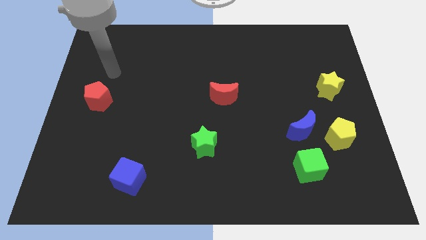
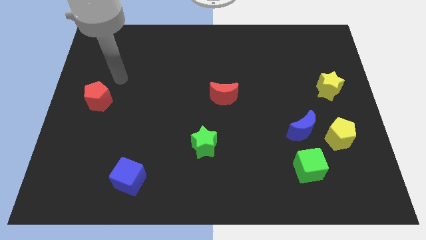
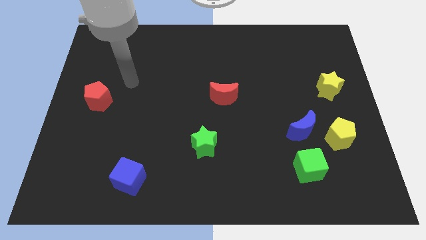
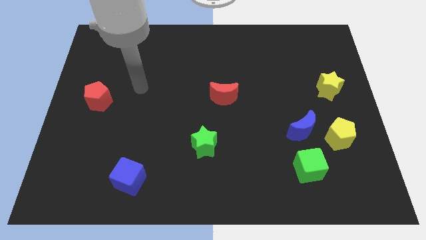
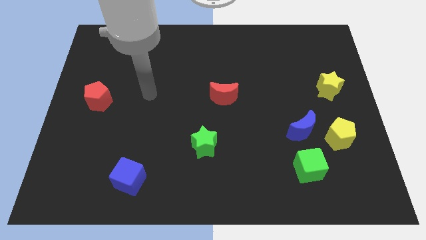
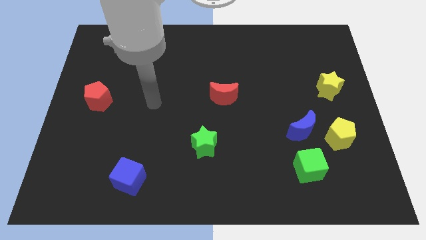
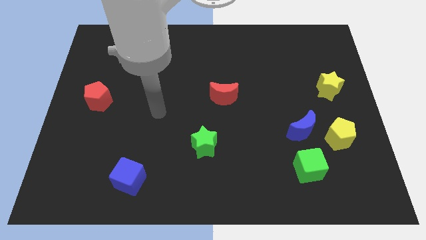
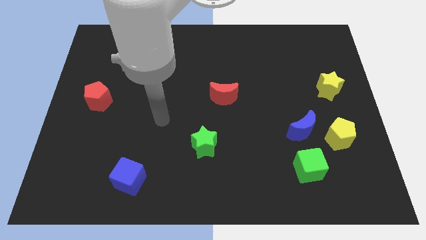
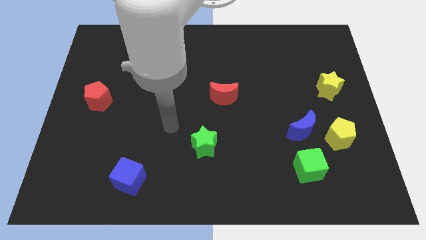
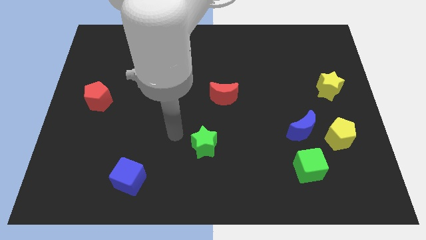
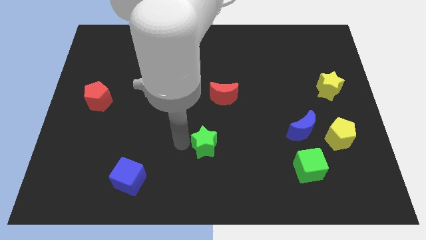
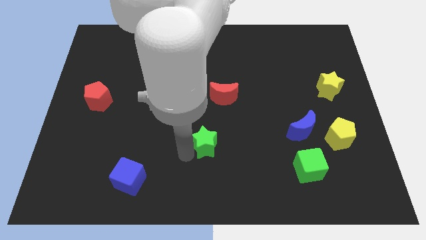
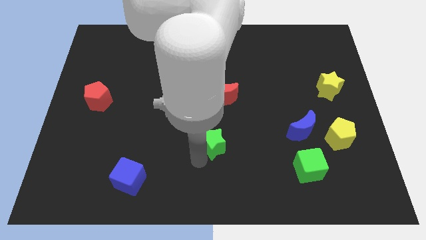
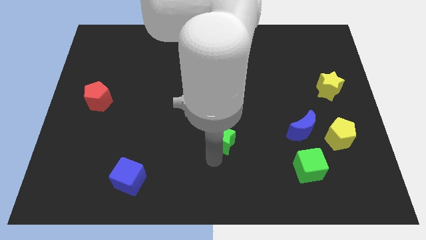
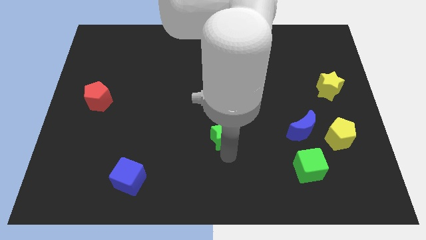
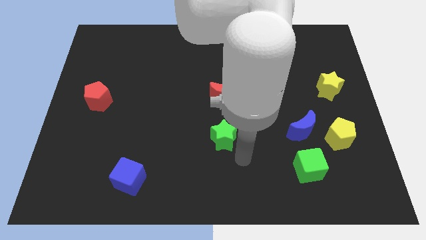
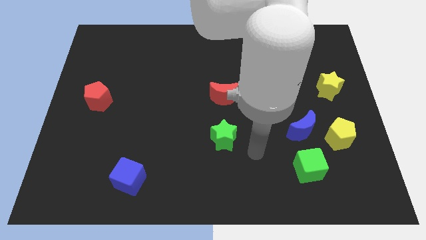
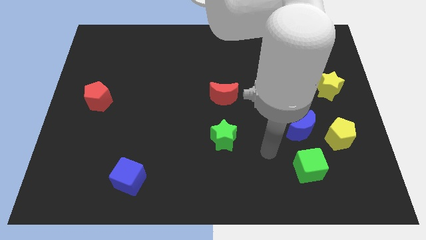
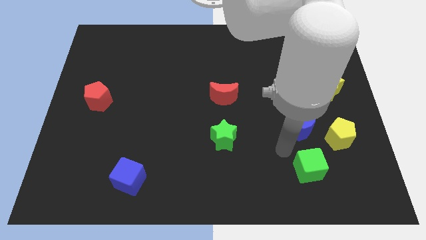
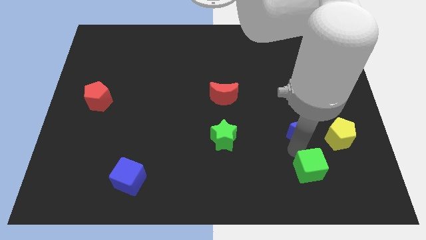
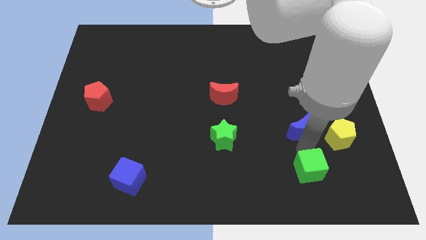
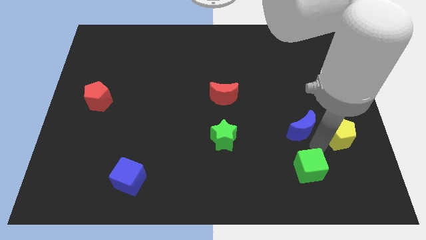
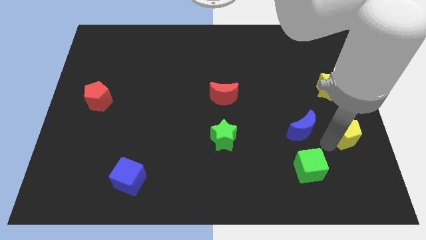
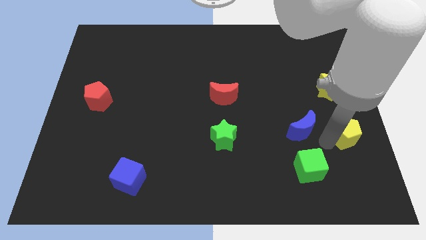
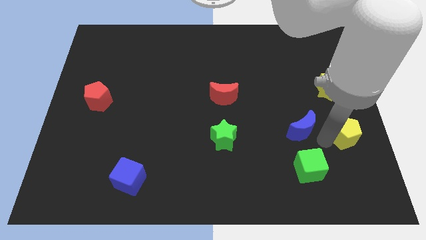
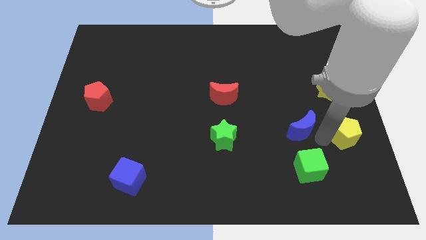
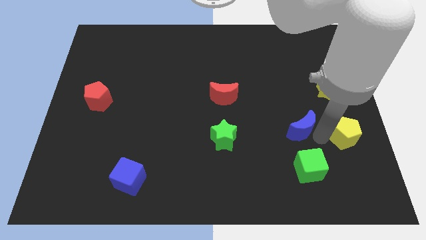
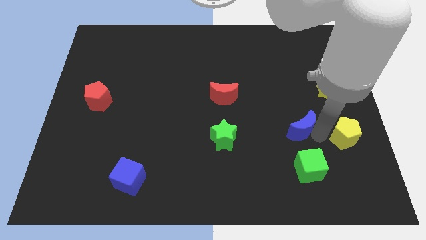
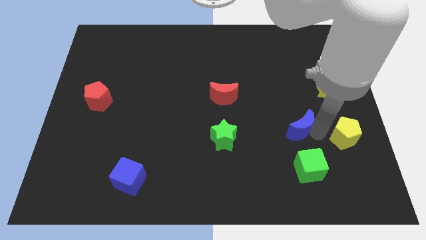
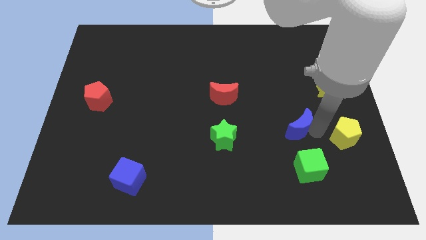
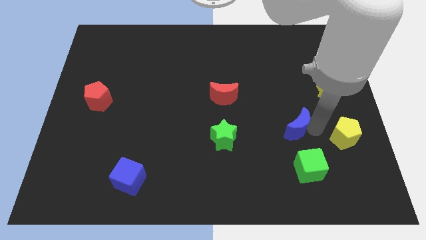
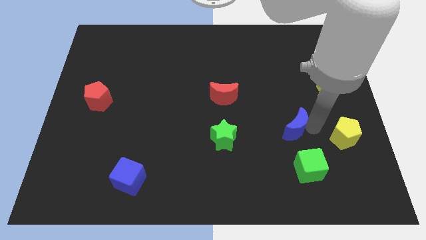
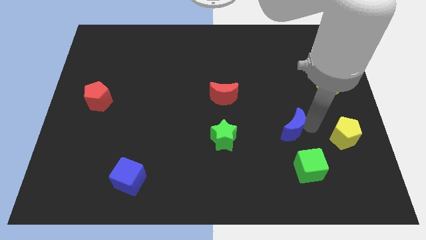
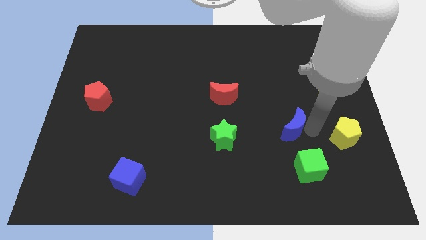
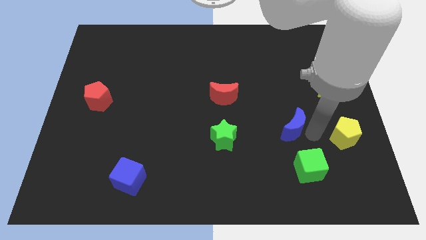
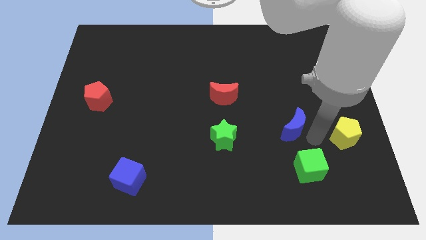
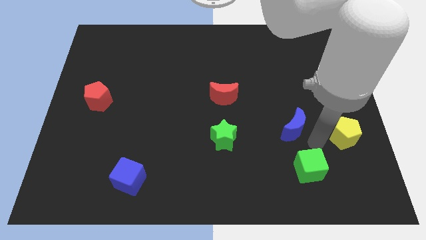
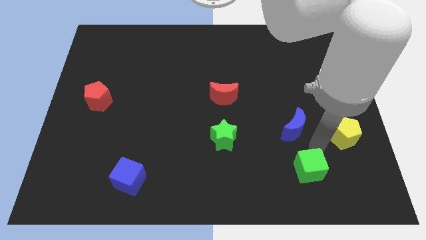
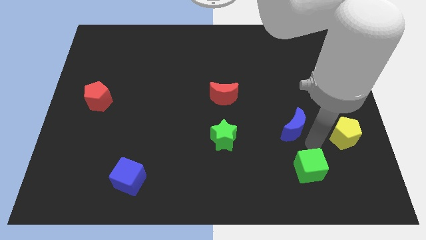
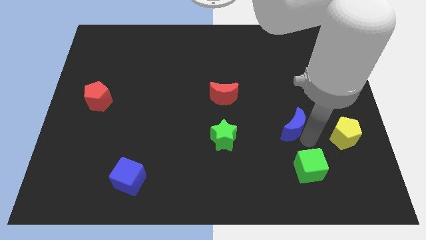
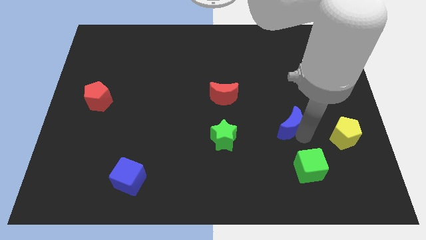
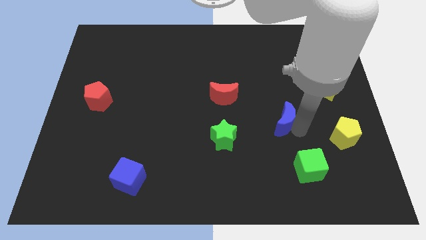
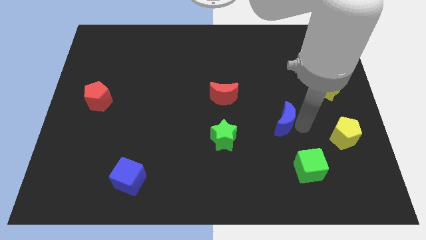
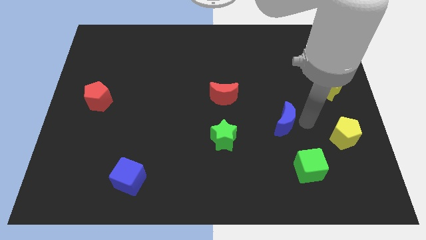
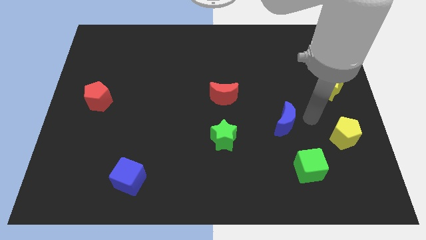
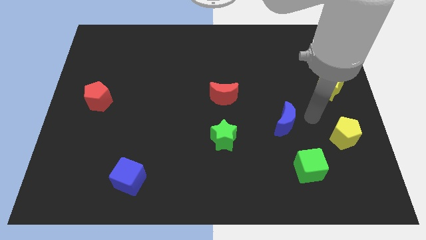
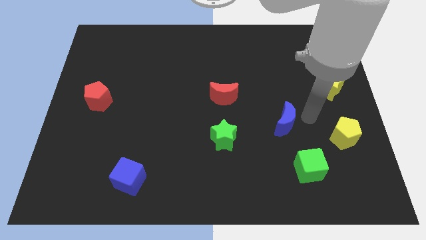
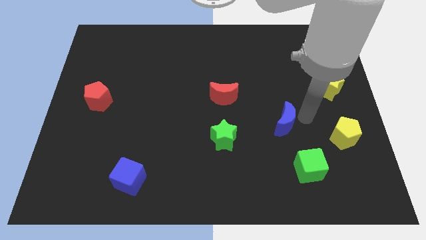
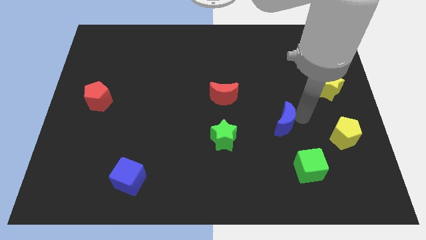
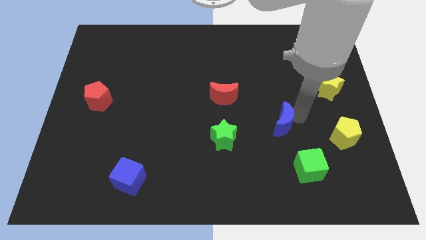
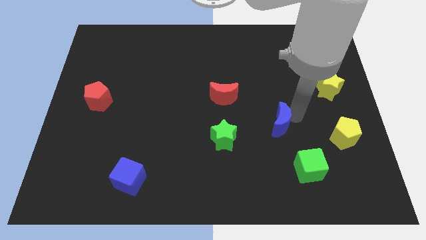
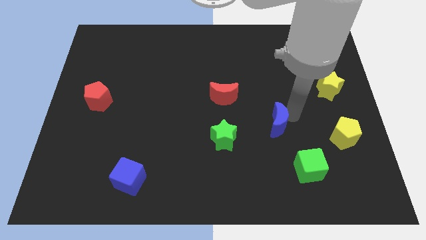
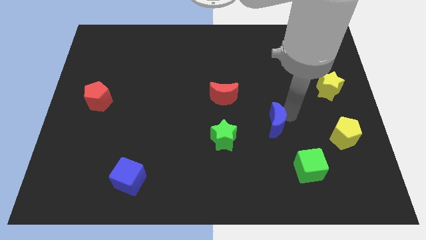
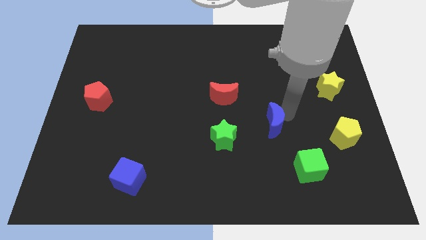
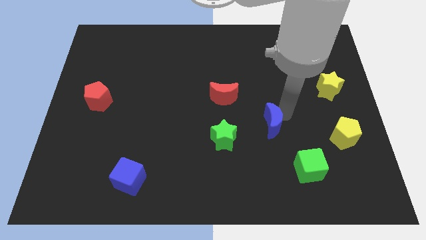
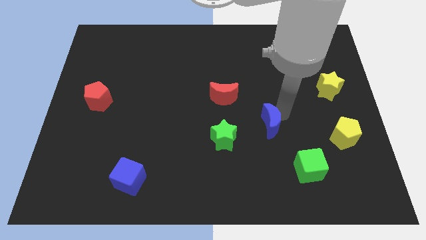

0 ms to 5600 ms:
slightly slide the blue moon left

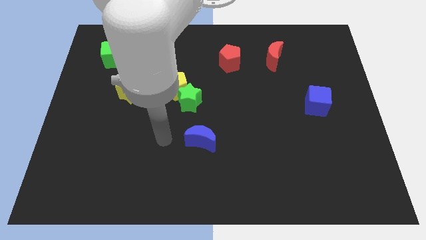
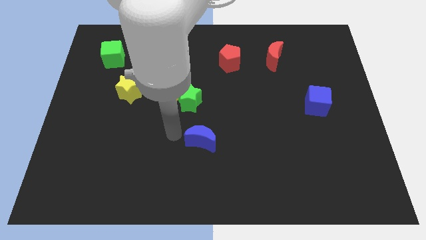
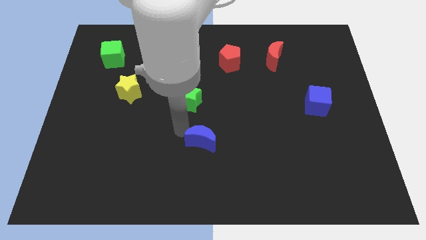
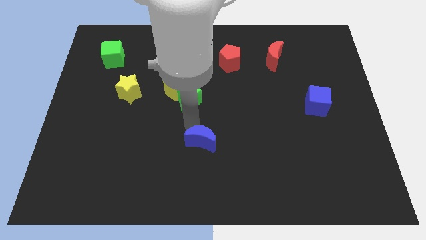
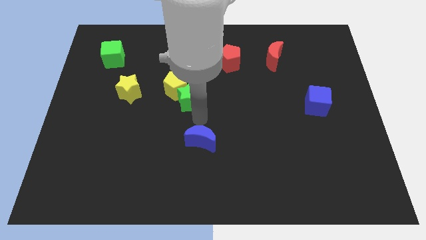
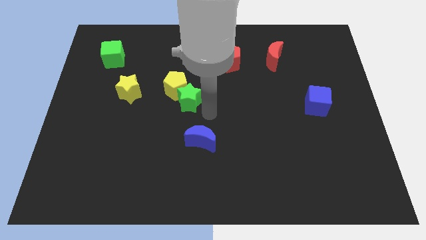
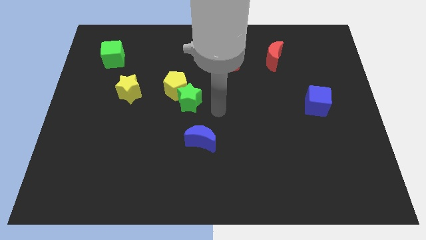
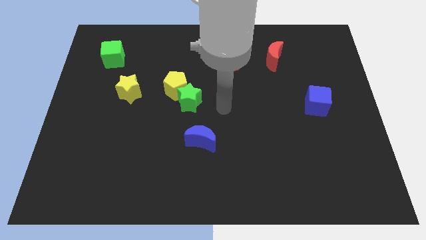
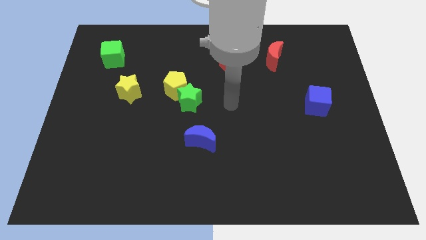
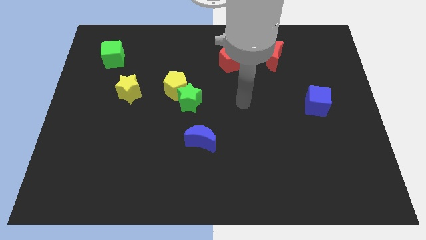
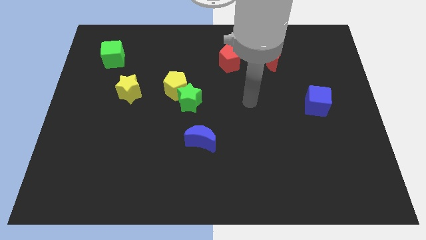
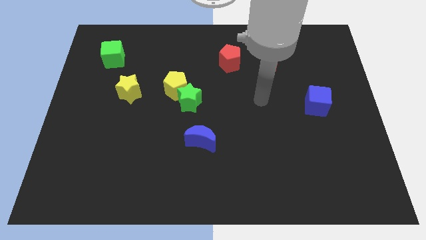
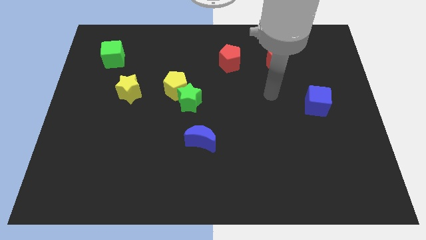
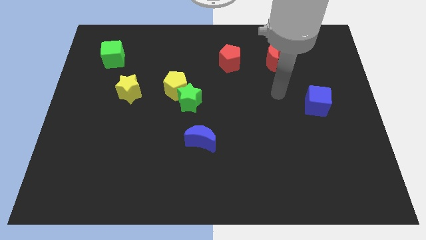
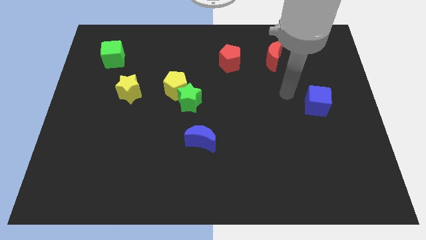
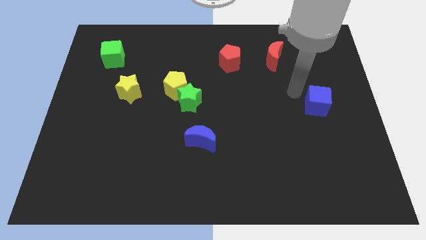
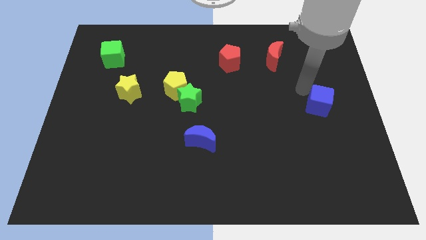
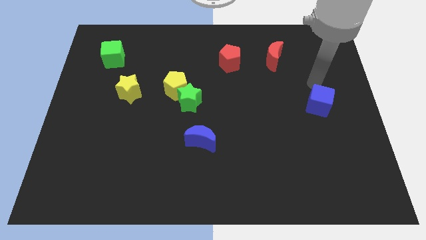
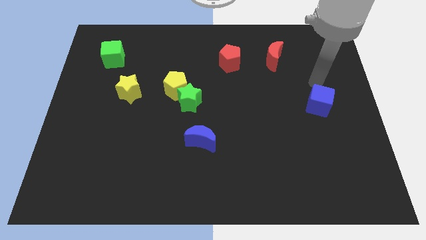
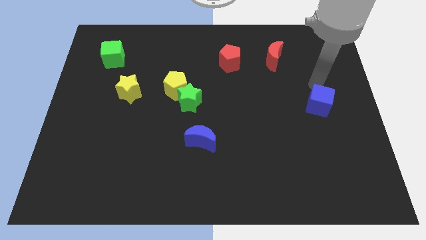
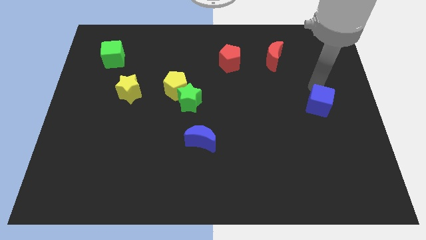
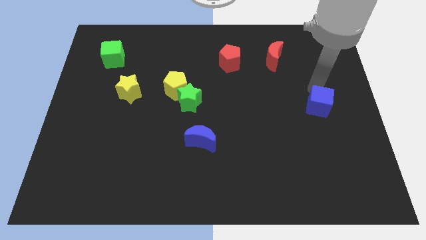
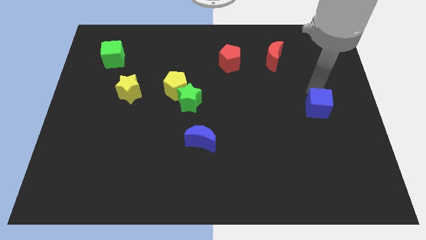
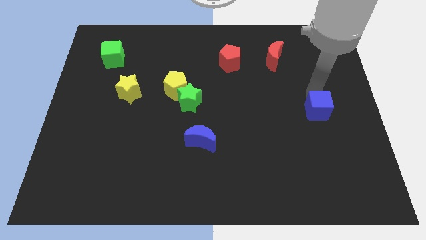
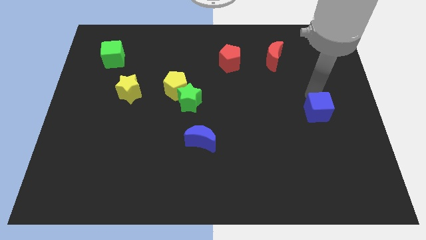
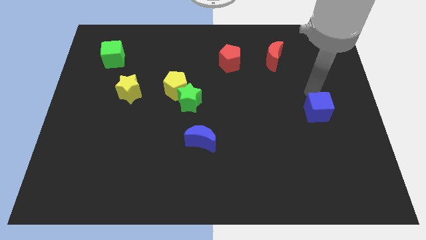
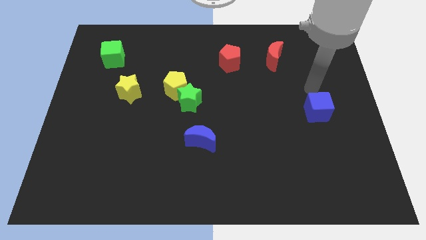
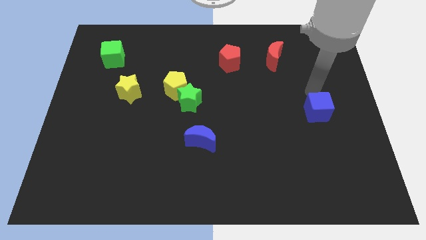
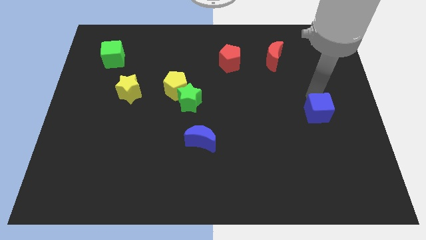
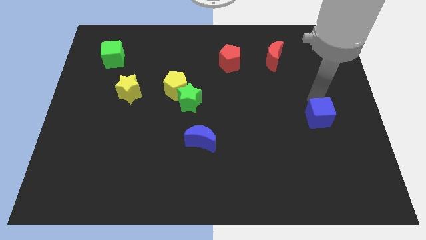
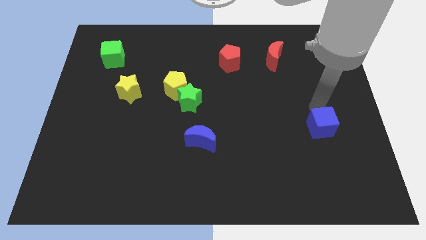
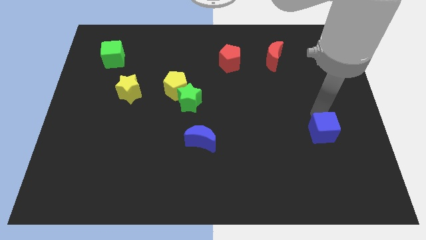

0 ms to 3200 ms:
slide the blue cube a bit downwards

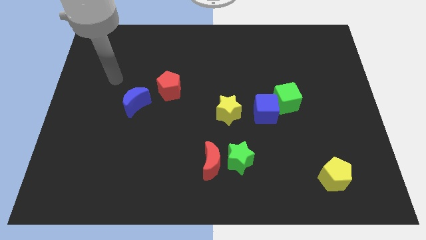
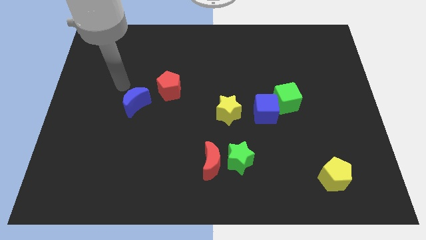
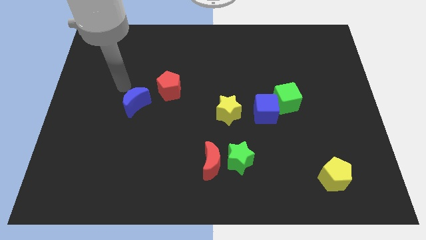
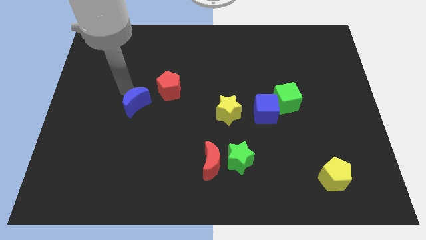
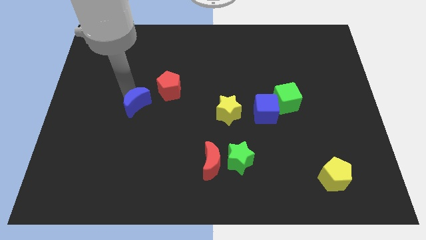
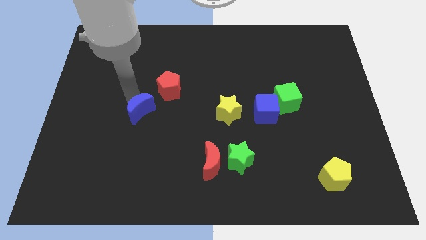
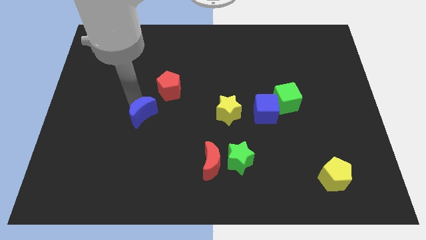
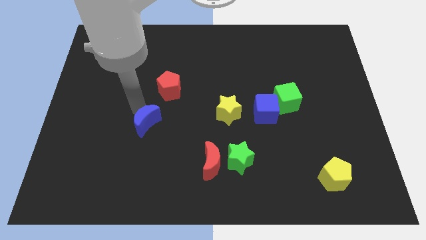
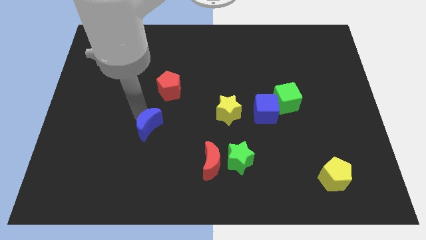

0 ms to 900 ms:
slightly move the blue moon down and then right
